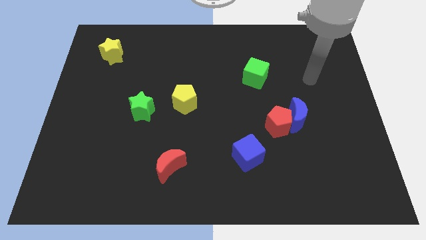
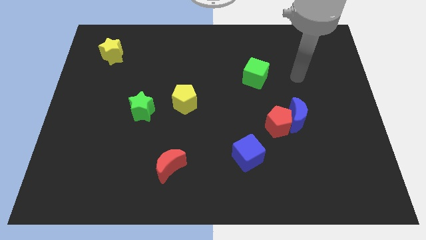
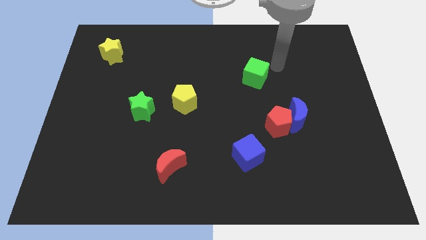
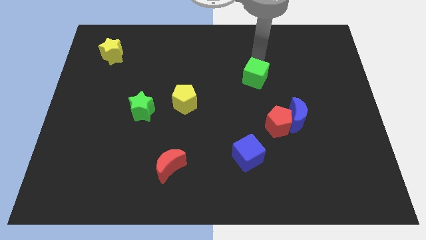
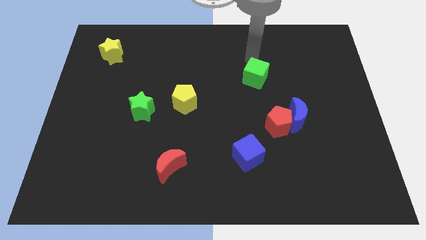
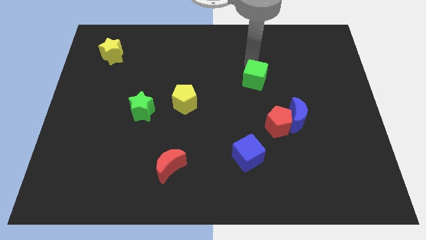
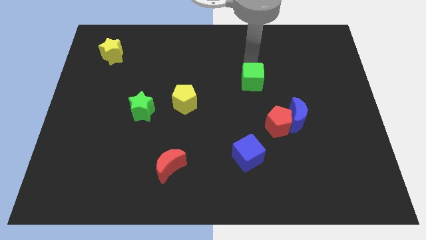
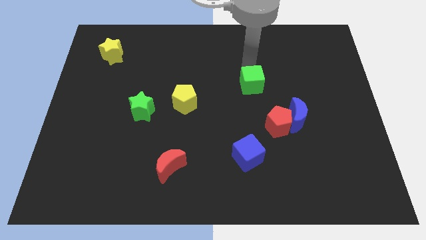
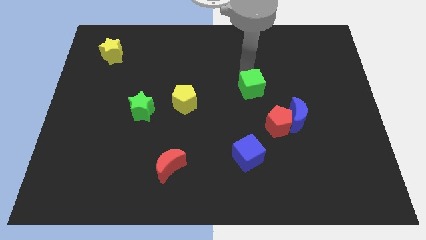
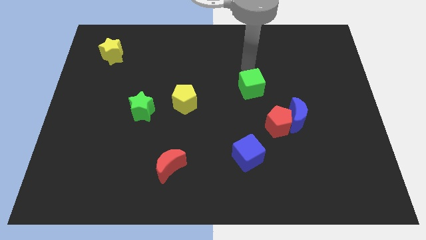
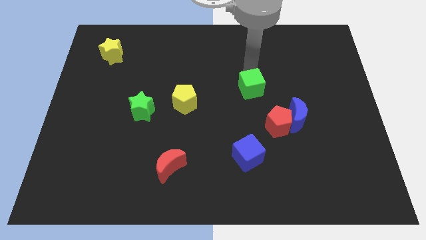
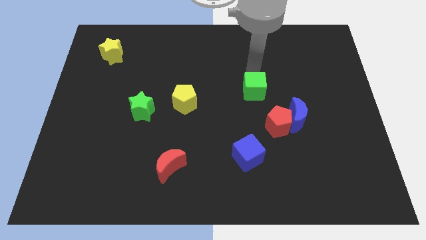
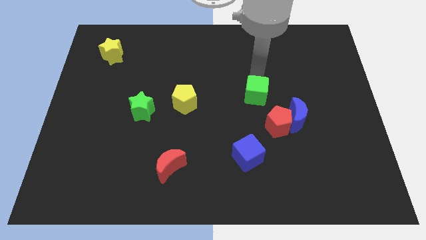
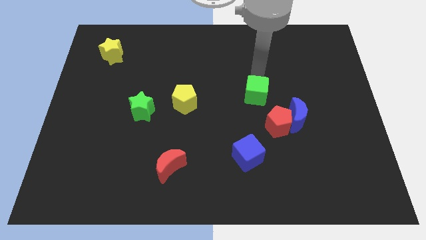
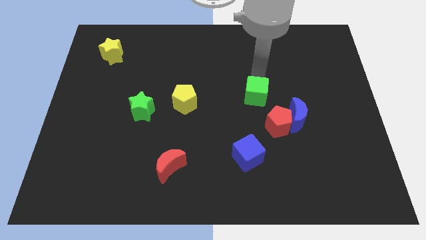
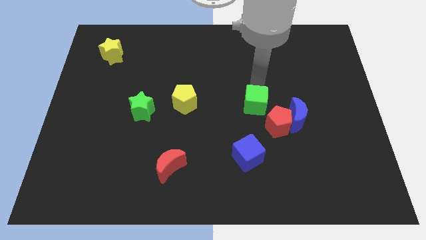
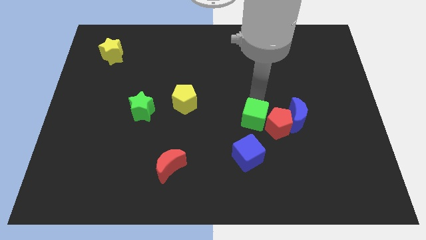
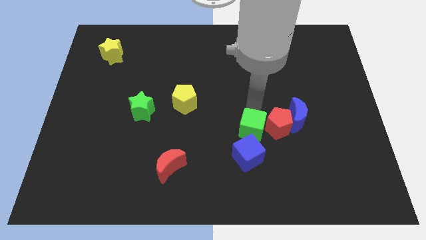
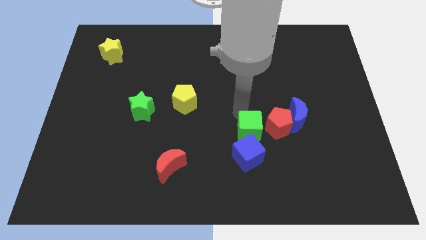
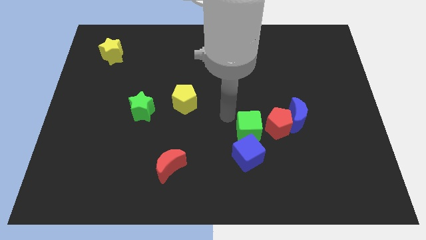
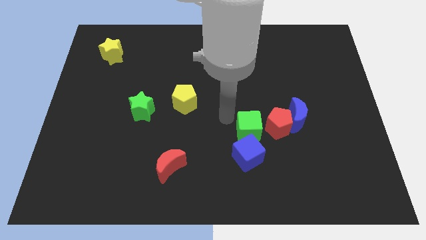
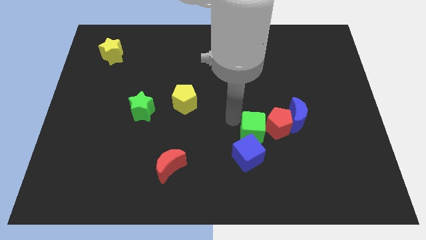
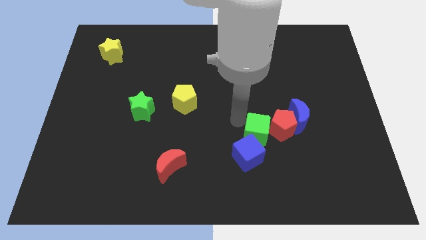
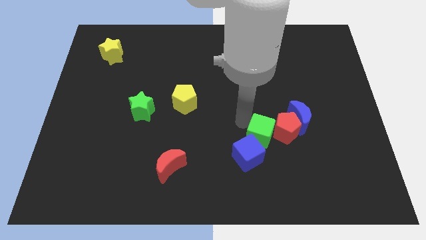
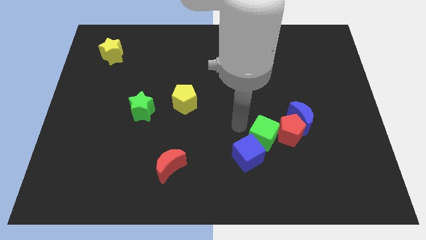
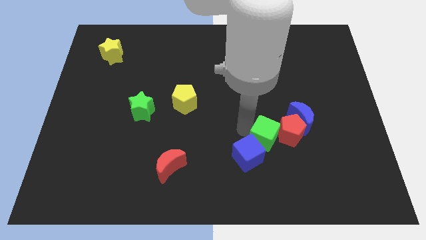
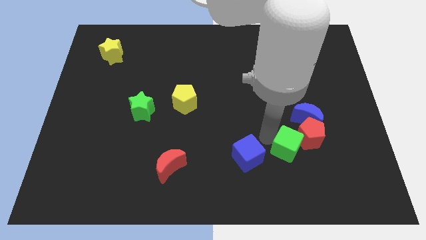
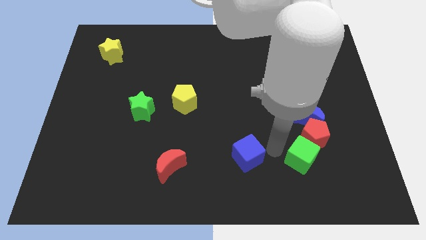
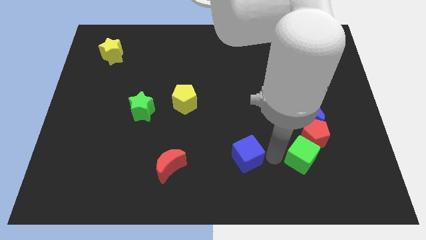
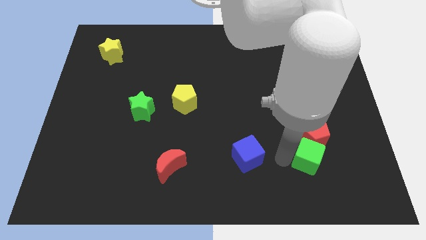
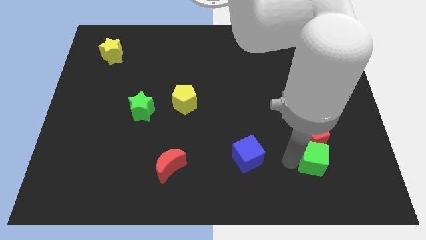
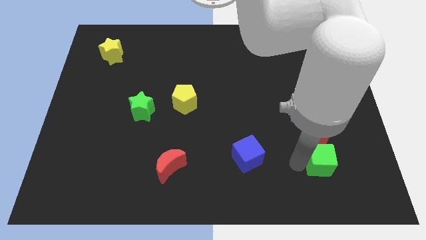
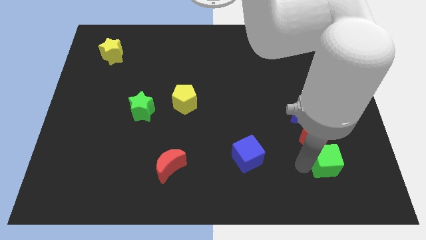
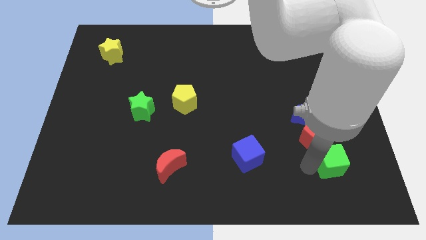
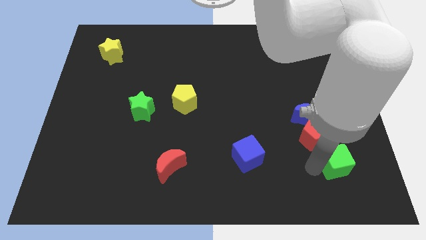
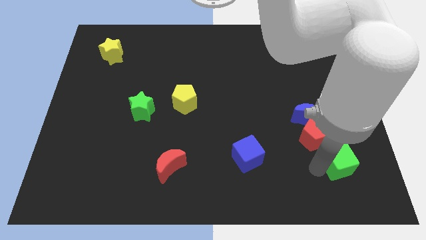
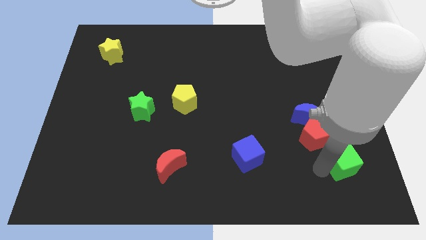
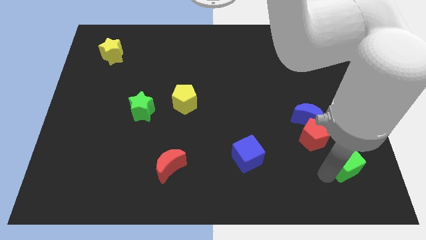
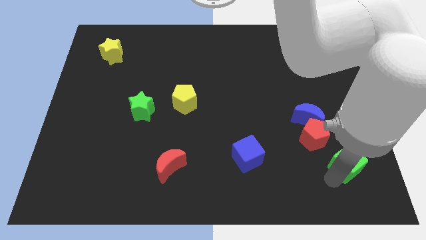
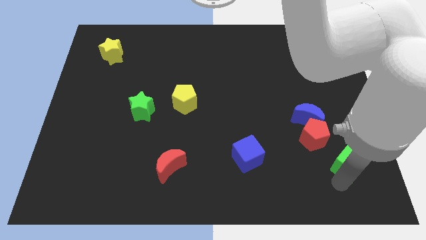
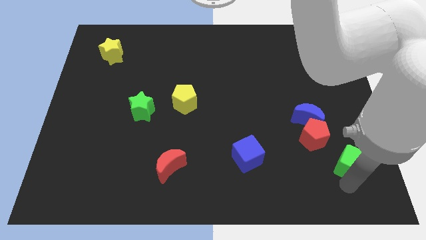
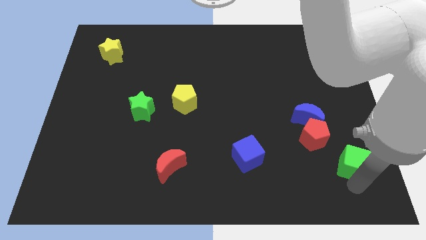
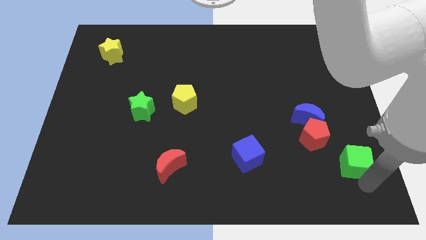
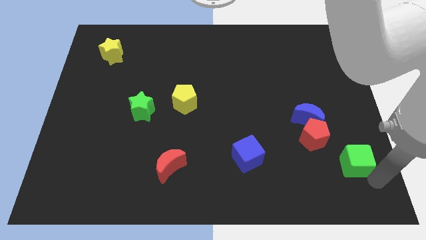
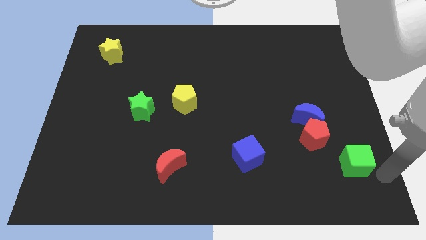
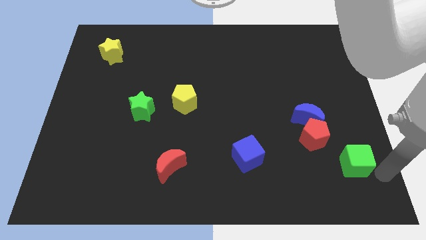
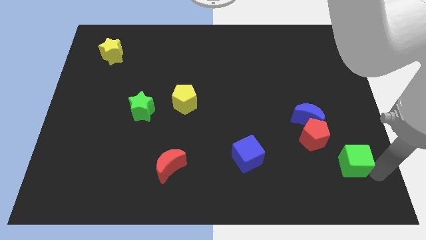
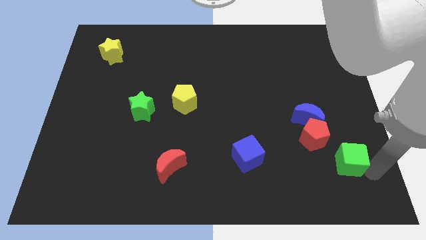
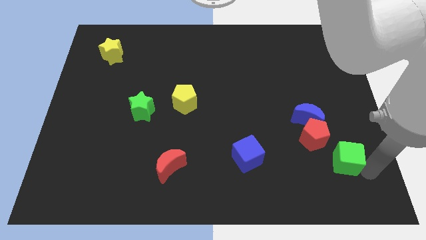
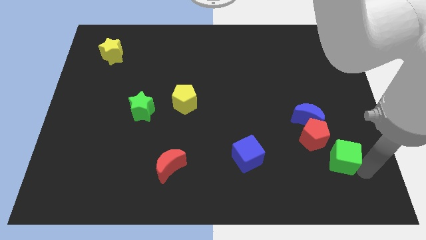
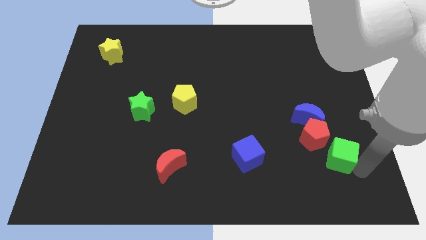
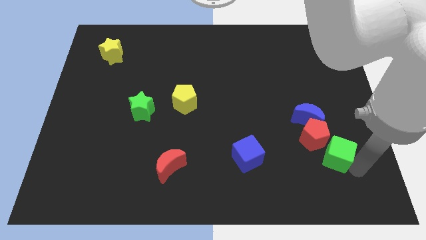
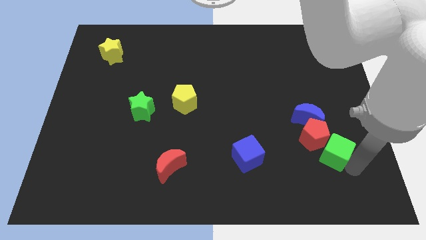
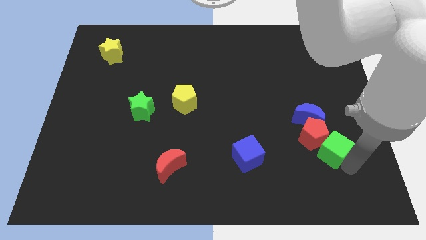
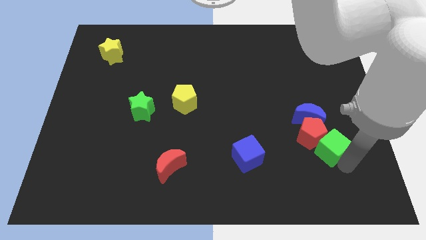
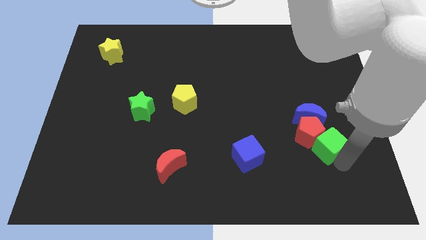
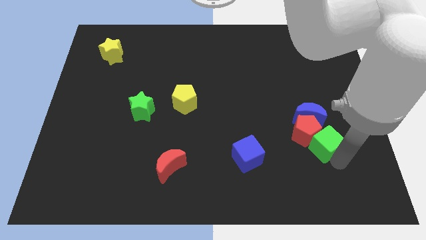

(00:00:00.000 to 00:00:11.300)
push the green cube to the bottom right side of the red pentagon

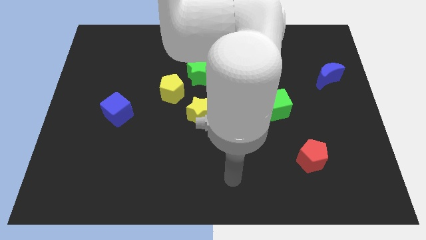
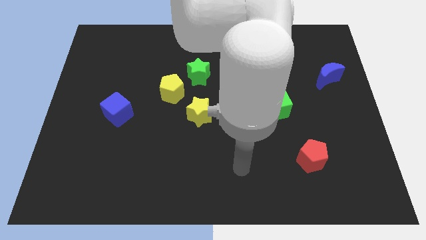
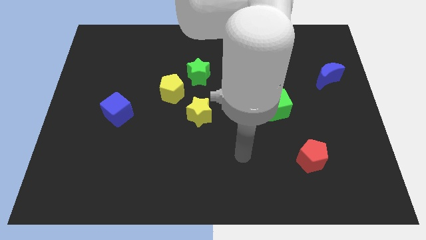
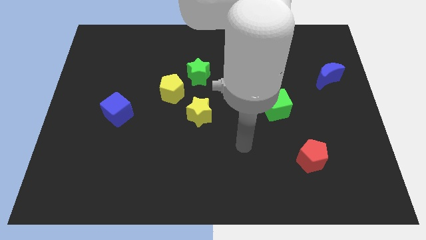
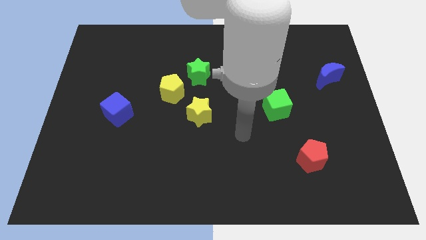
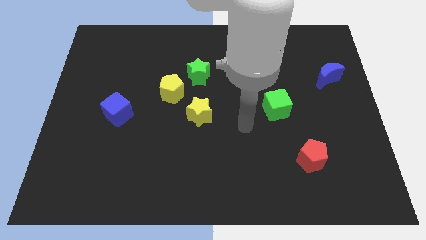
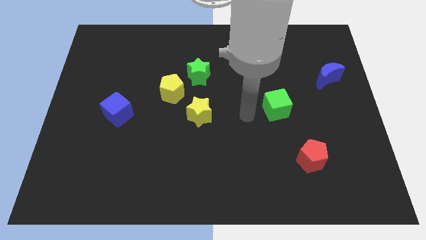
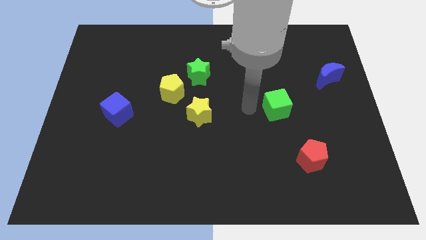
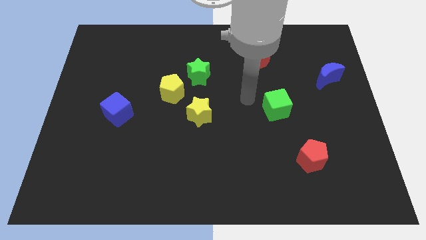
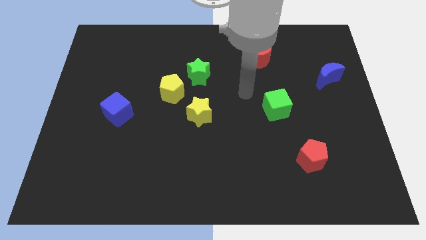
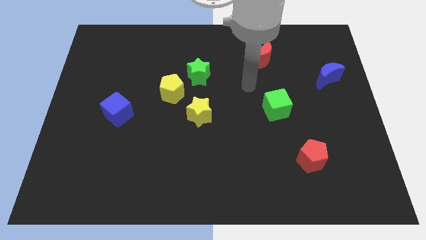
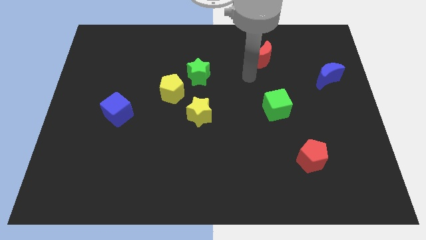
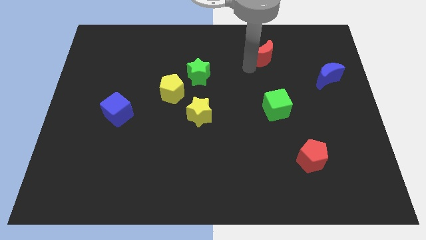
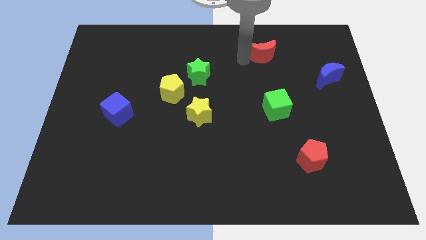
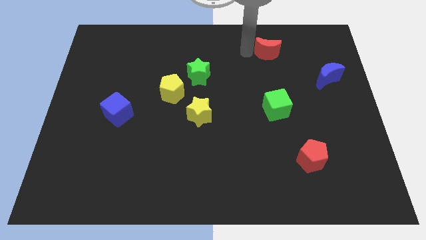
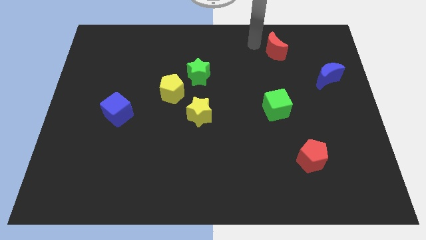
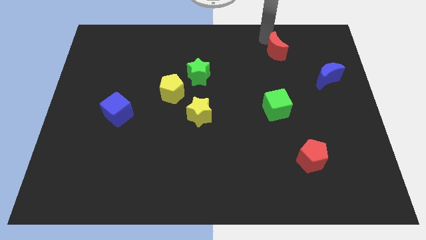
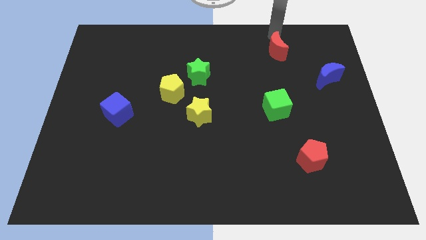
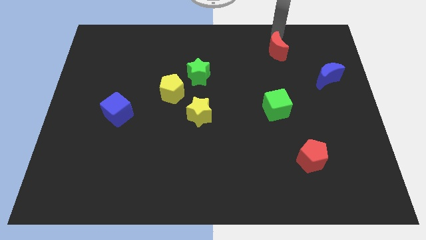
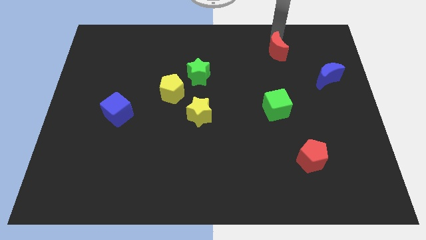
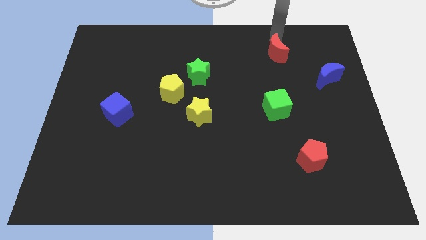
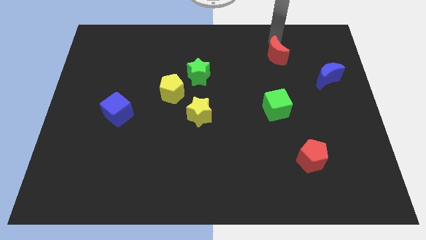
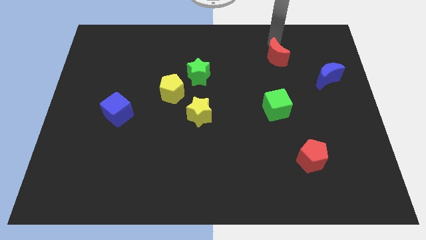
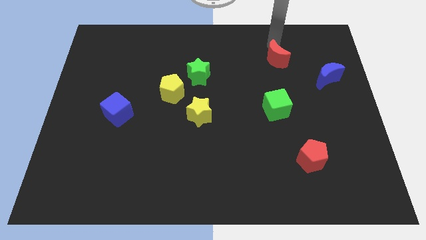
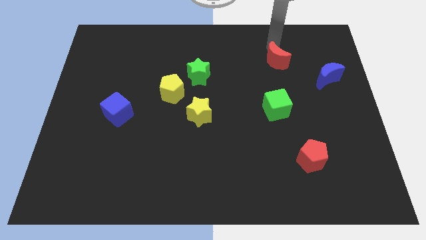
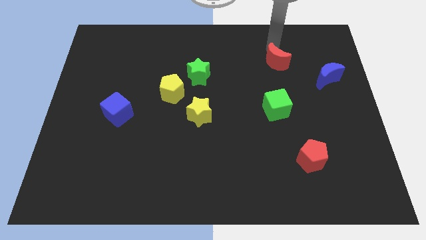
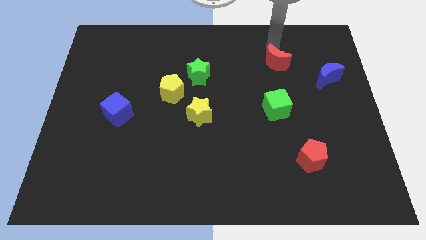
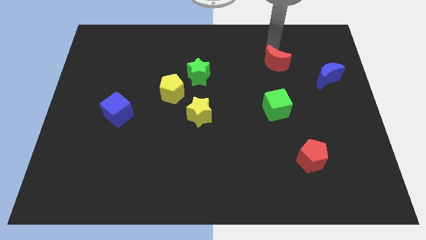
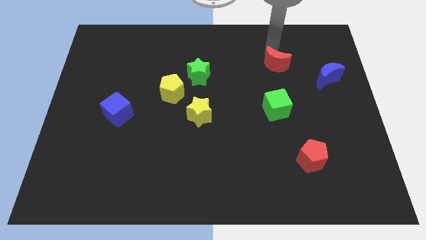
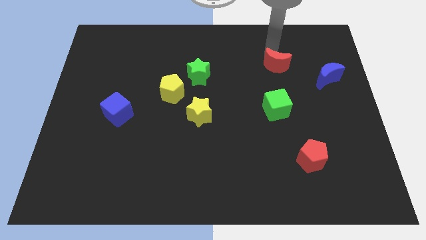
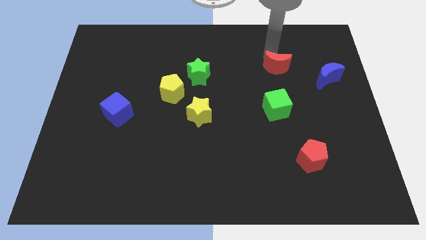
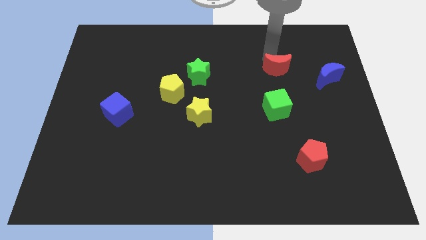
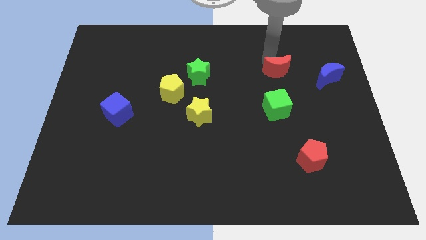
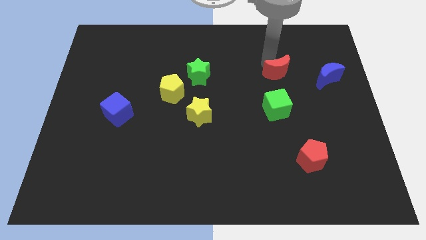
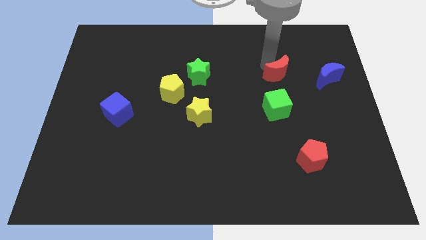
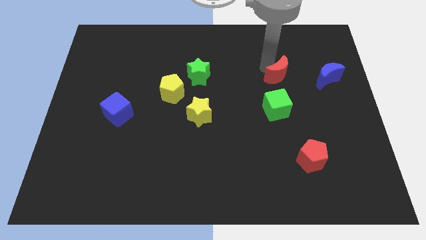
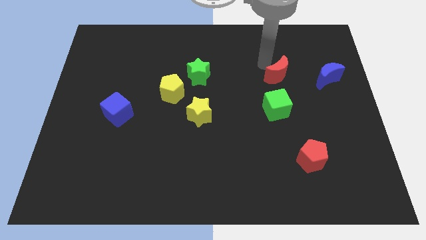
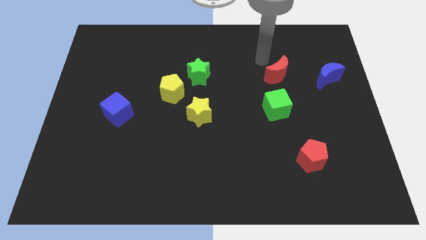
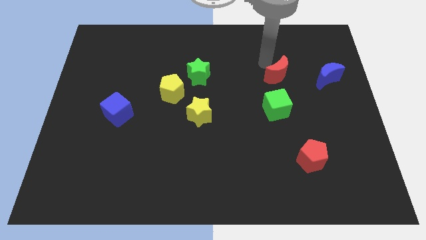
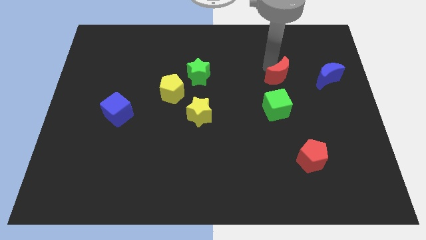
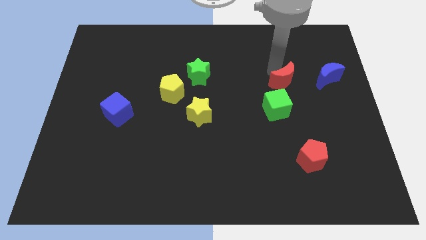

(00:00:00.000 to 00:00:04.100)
put the red moon diagonally up and to the right of the green cube
